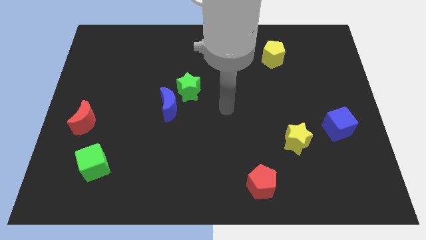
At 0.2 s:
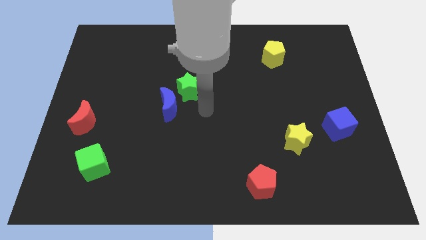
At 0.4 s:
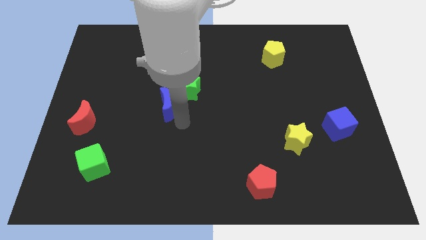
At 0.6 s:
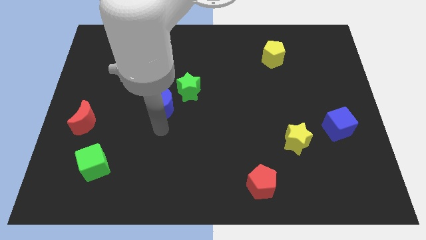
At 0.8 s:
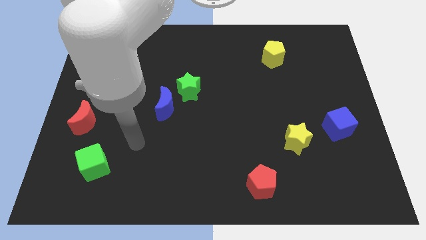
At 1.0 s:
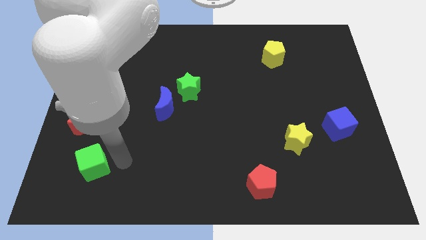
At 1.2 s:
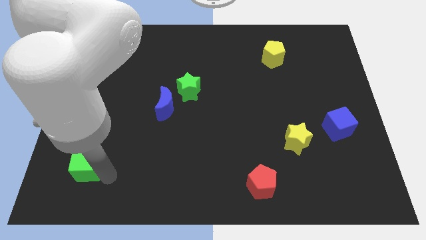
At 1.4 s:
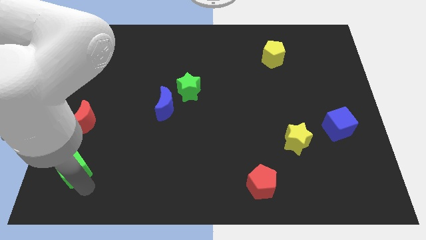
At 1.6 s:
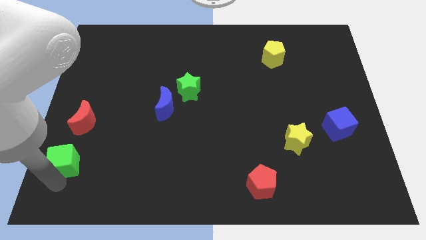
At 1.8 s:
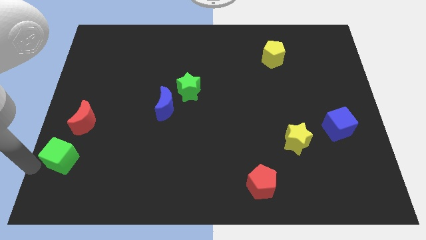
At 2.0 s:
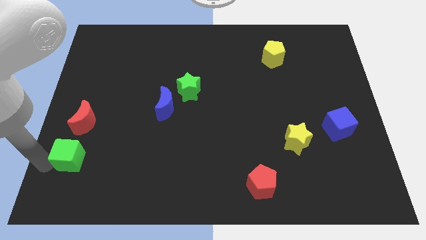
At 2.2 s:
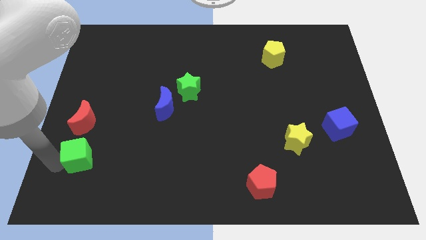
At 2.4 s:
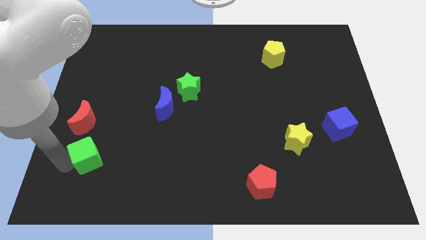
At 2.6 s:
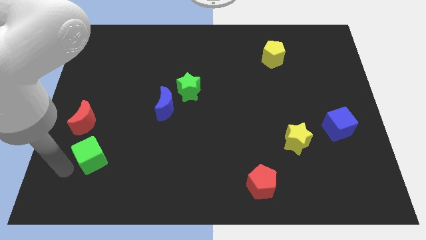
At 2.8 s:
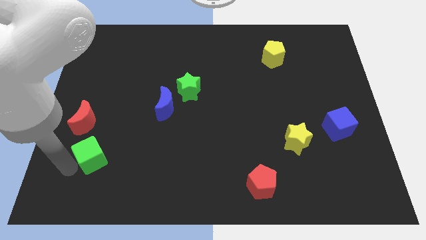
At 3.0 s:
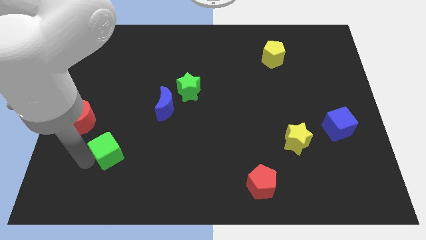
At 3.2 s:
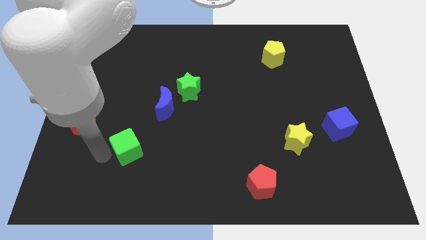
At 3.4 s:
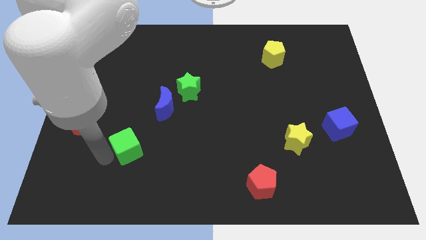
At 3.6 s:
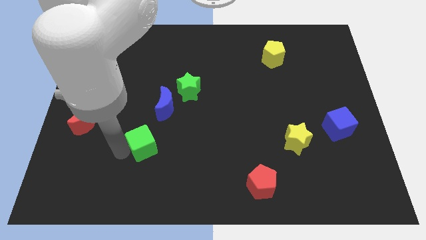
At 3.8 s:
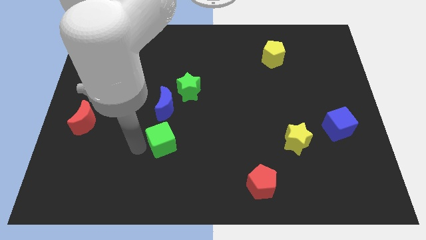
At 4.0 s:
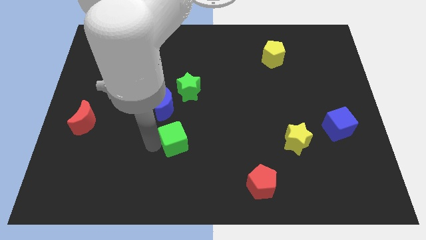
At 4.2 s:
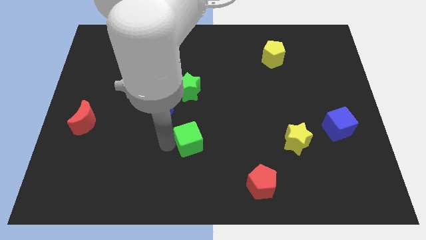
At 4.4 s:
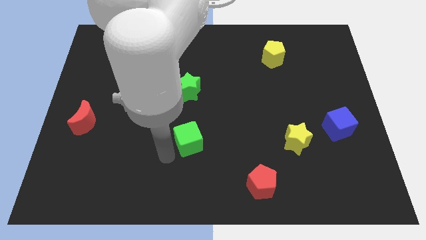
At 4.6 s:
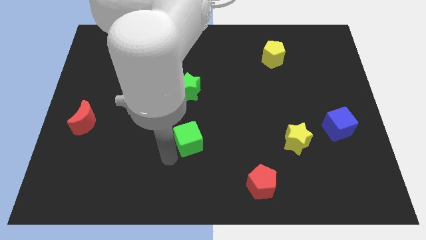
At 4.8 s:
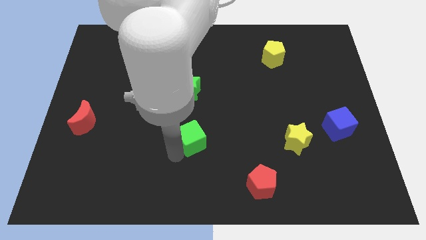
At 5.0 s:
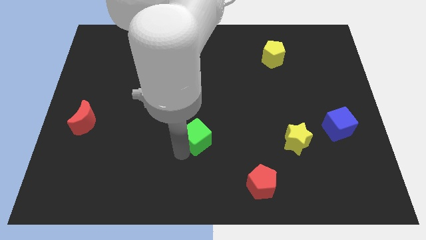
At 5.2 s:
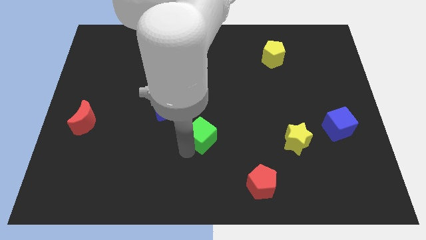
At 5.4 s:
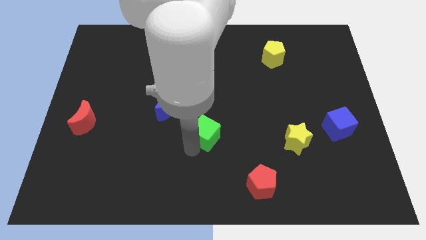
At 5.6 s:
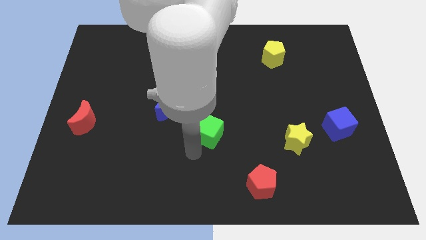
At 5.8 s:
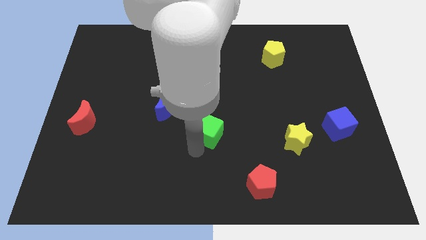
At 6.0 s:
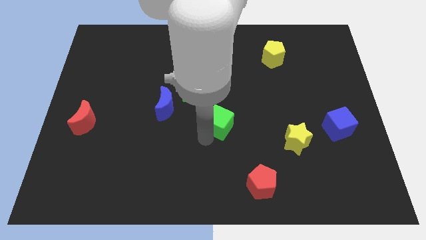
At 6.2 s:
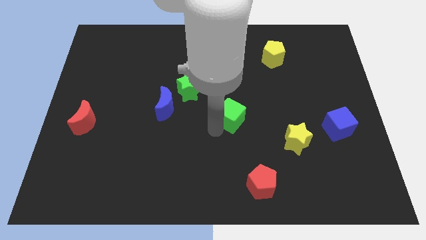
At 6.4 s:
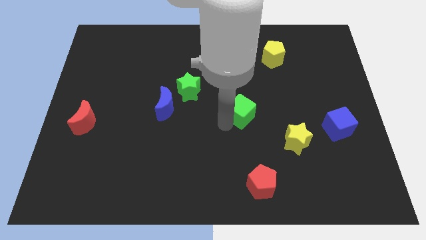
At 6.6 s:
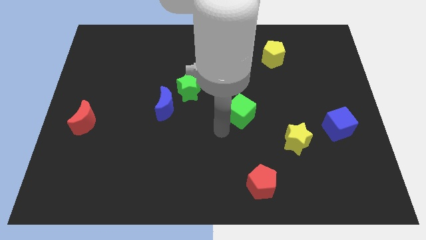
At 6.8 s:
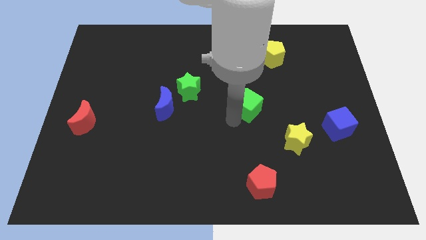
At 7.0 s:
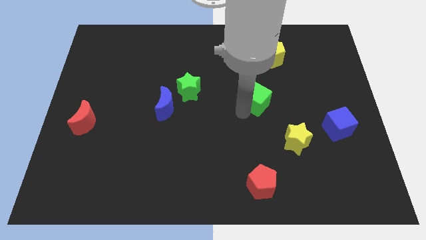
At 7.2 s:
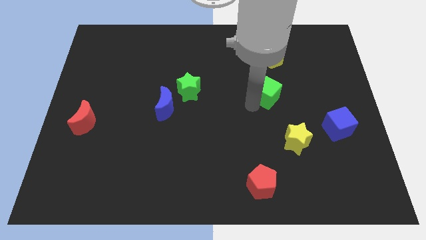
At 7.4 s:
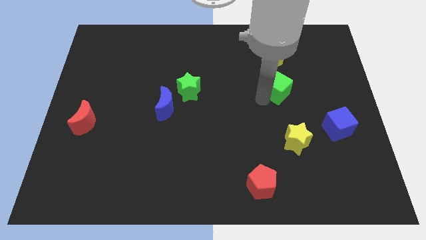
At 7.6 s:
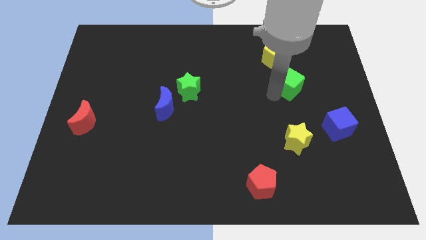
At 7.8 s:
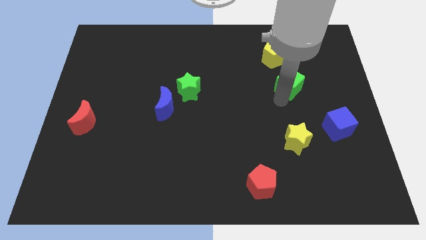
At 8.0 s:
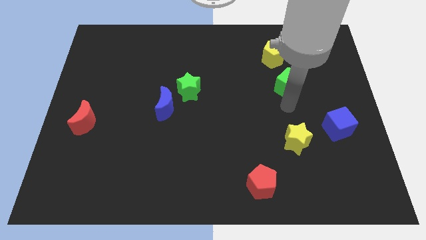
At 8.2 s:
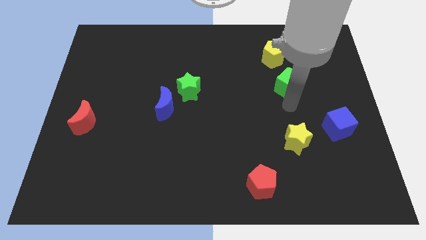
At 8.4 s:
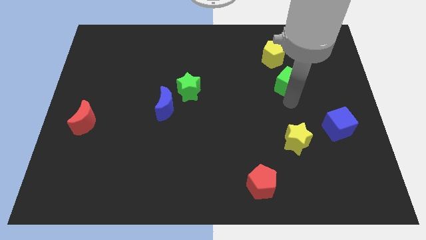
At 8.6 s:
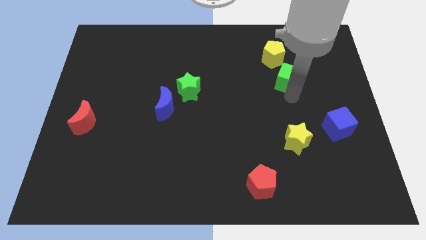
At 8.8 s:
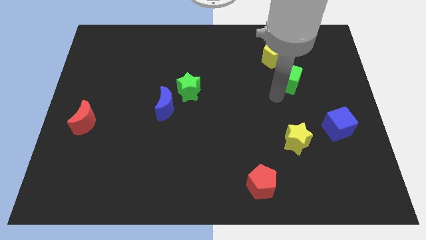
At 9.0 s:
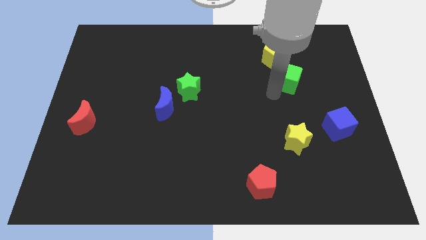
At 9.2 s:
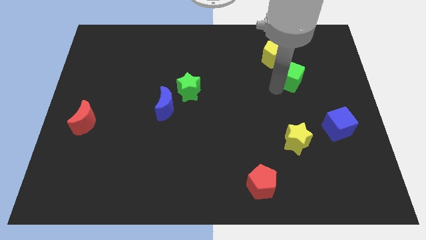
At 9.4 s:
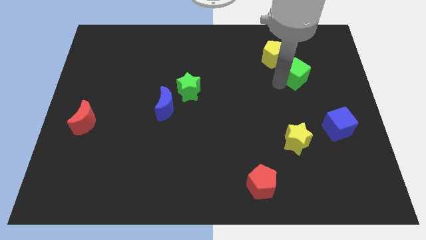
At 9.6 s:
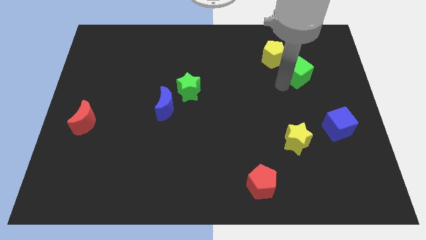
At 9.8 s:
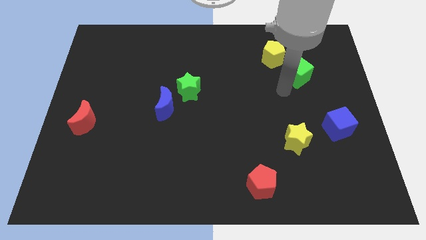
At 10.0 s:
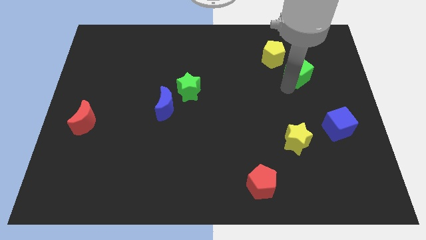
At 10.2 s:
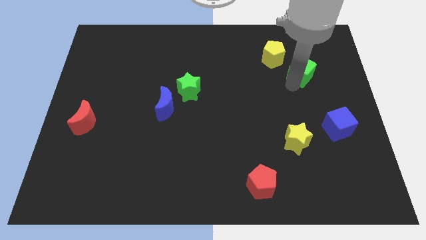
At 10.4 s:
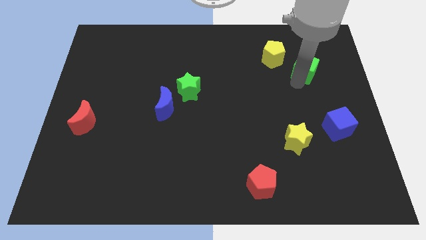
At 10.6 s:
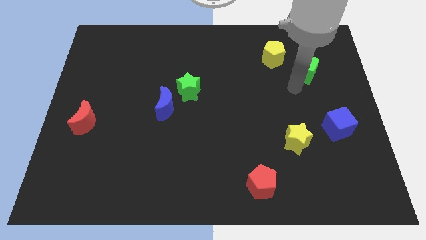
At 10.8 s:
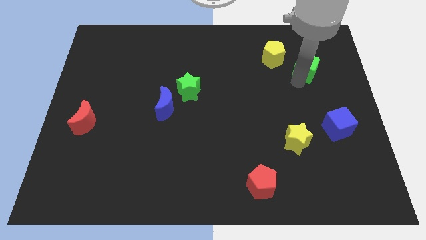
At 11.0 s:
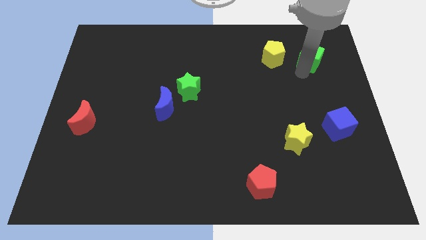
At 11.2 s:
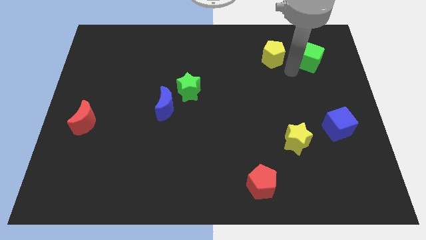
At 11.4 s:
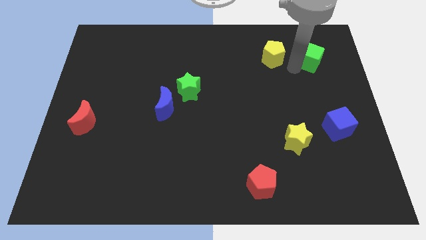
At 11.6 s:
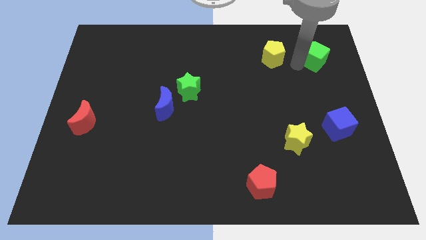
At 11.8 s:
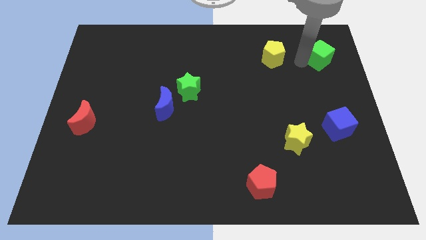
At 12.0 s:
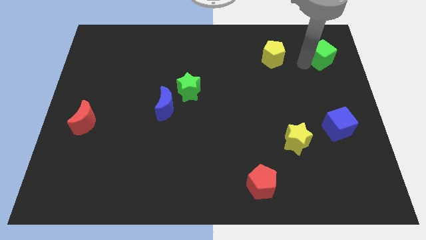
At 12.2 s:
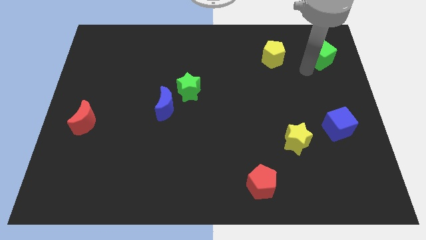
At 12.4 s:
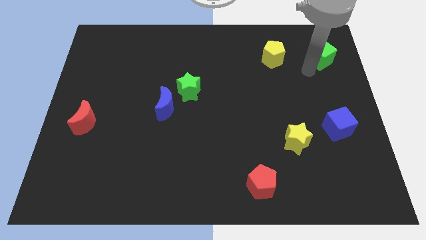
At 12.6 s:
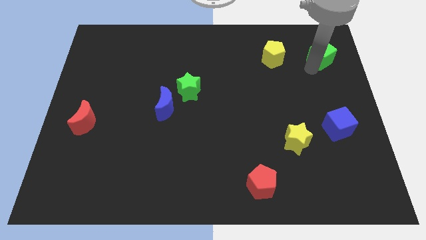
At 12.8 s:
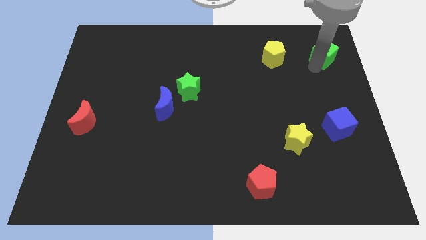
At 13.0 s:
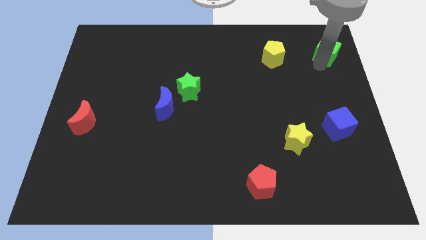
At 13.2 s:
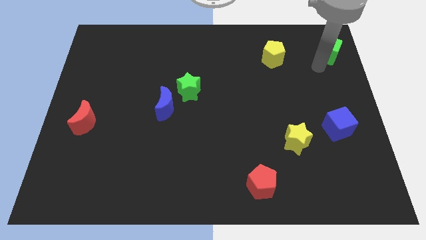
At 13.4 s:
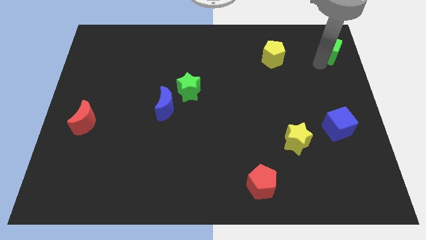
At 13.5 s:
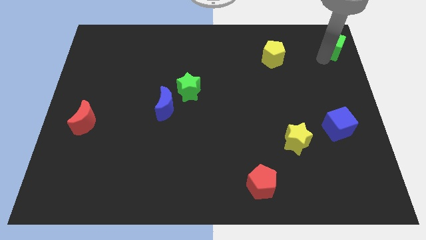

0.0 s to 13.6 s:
slide the green cube to the upper right corner
